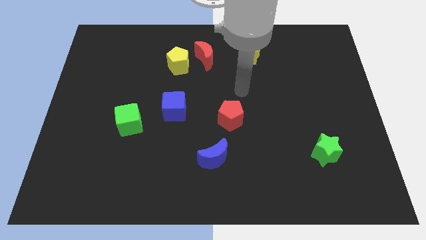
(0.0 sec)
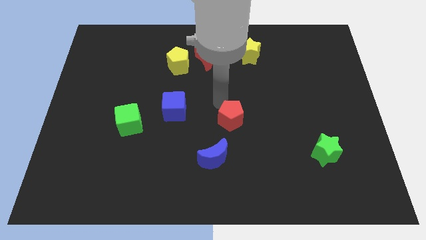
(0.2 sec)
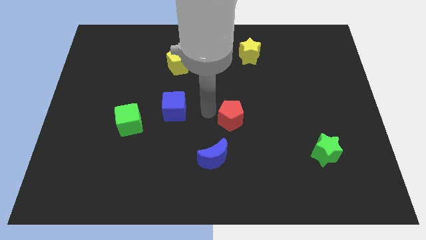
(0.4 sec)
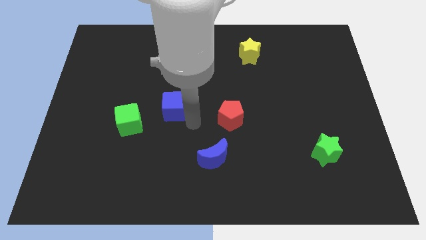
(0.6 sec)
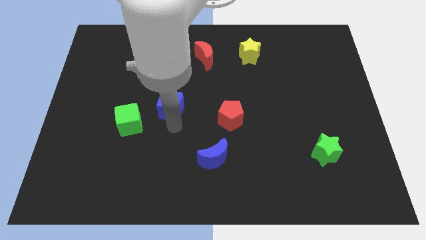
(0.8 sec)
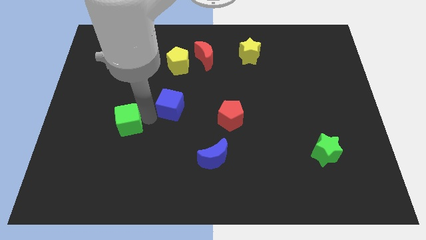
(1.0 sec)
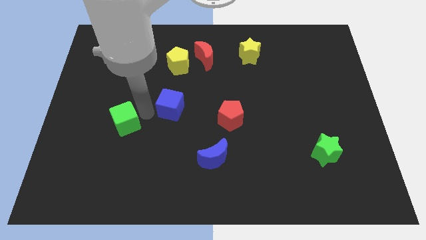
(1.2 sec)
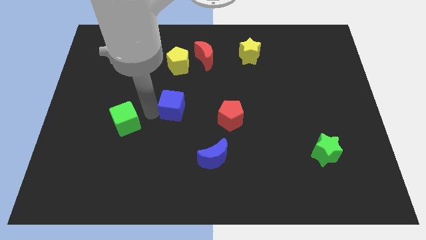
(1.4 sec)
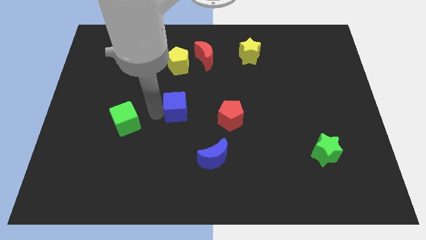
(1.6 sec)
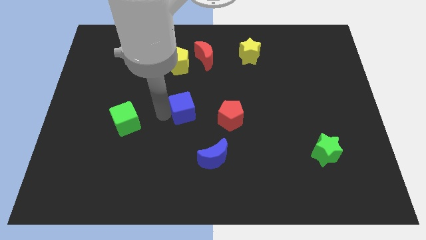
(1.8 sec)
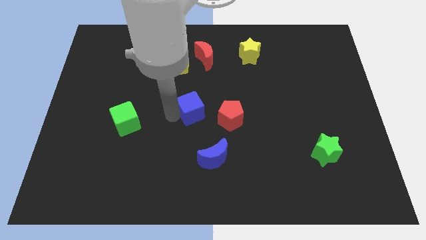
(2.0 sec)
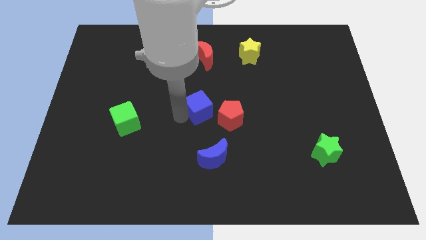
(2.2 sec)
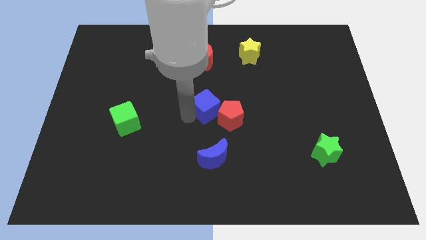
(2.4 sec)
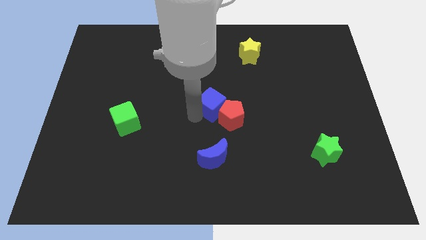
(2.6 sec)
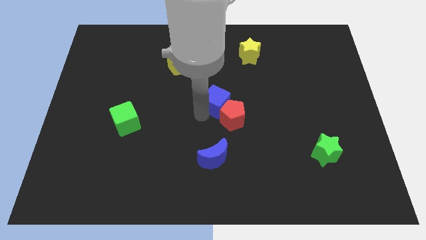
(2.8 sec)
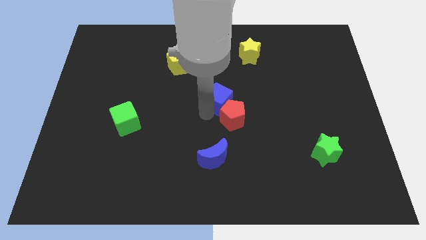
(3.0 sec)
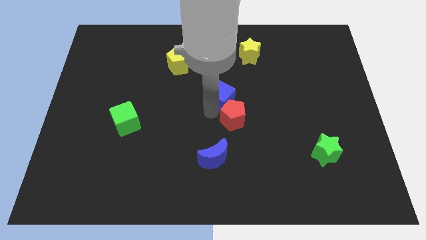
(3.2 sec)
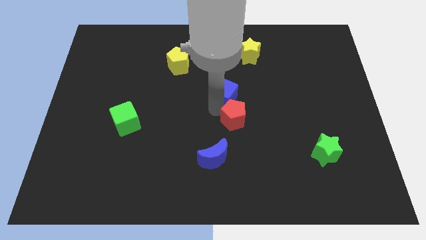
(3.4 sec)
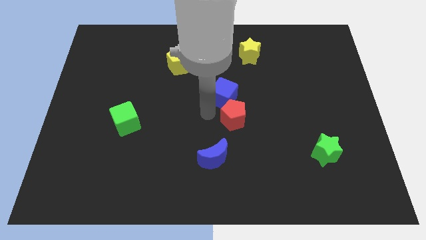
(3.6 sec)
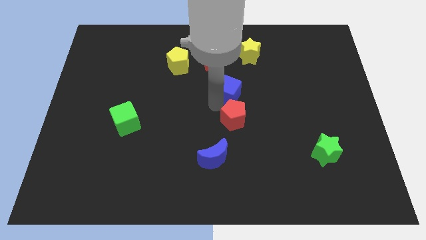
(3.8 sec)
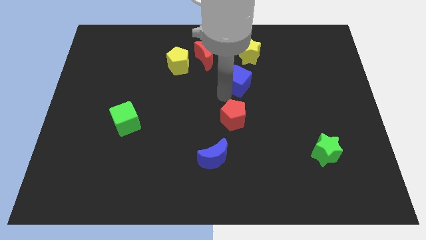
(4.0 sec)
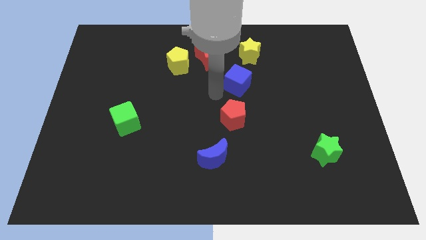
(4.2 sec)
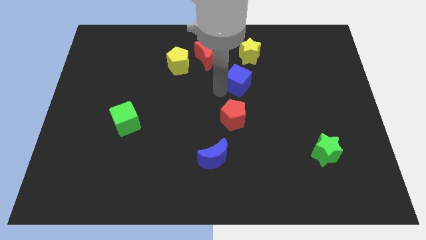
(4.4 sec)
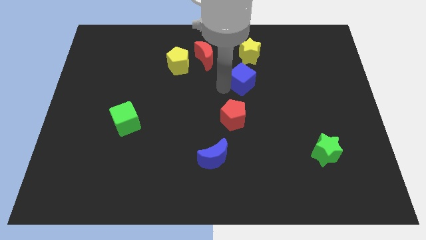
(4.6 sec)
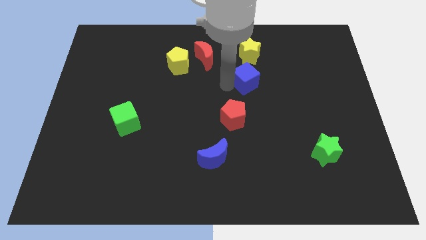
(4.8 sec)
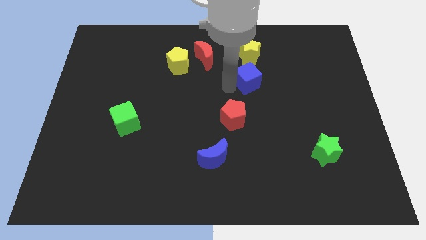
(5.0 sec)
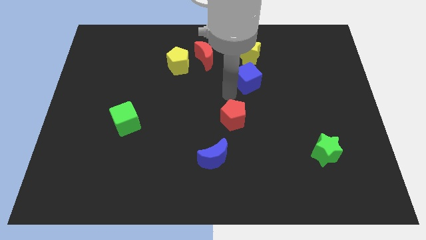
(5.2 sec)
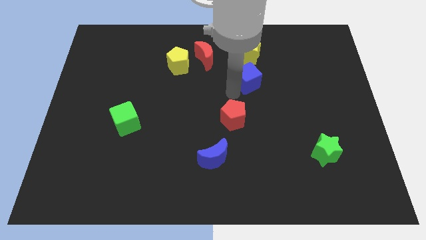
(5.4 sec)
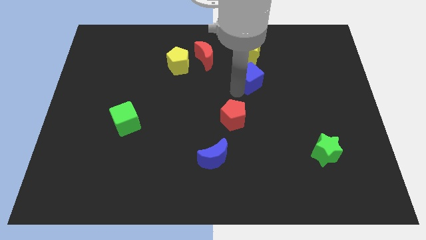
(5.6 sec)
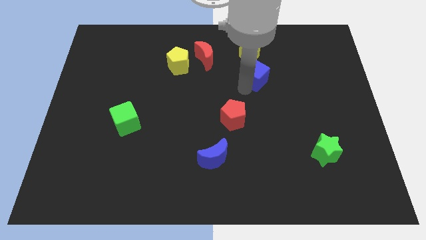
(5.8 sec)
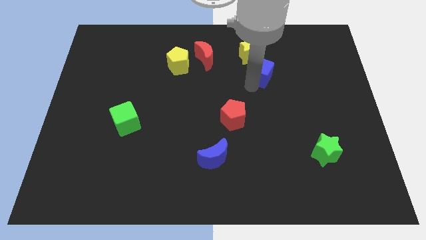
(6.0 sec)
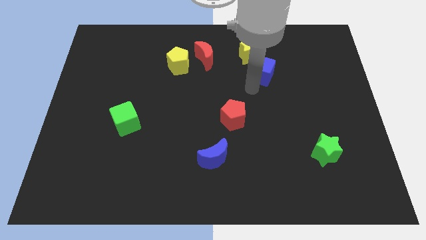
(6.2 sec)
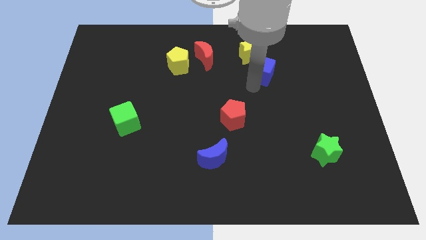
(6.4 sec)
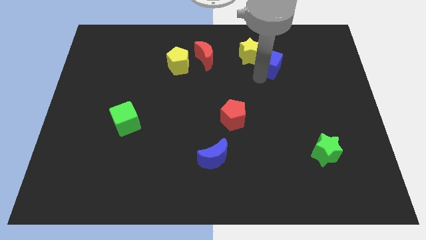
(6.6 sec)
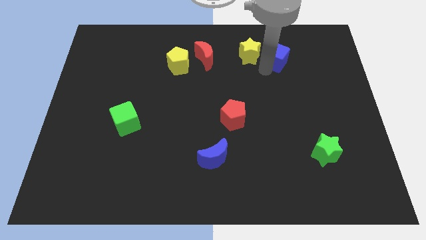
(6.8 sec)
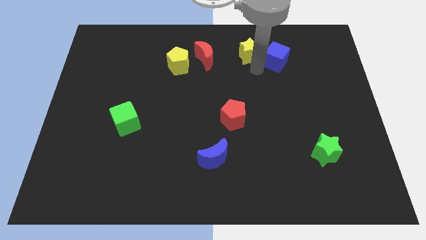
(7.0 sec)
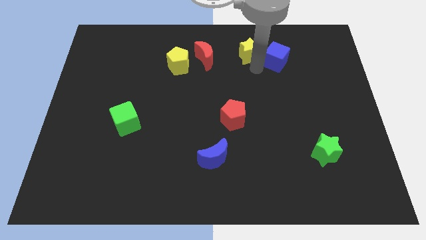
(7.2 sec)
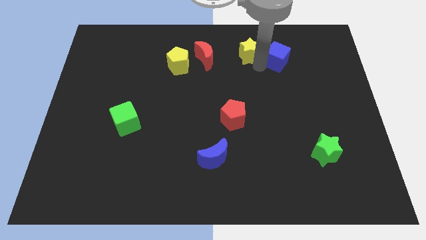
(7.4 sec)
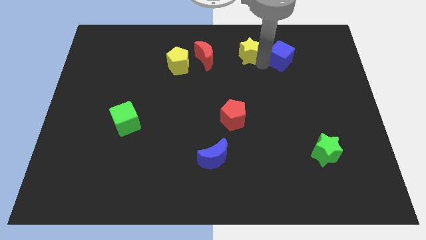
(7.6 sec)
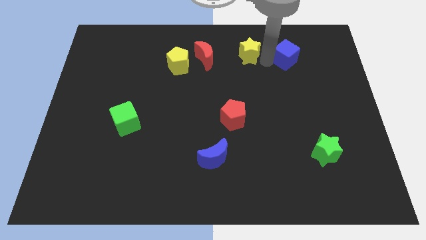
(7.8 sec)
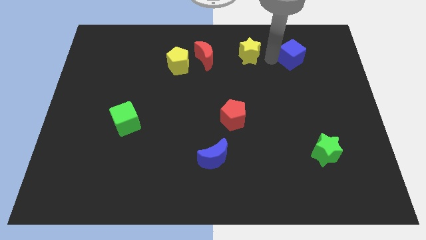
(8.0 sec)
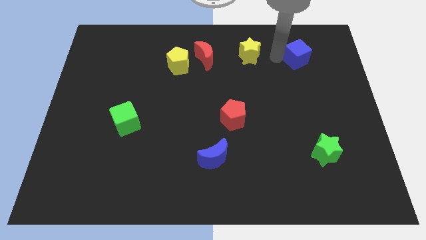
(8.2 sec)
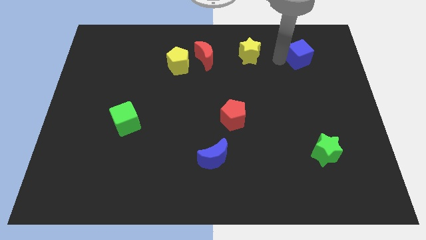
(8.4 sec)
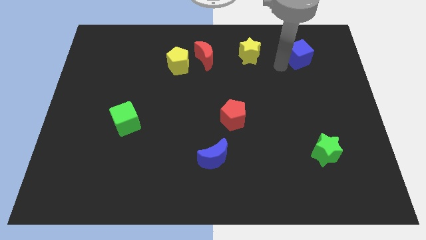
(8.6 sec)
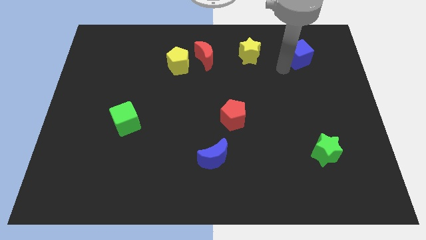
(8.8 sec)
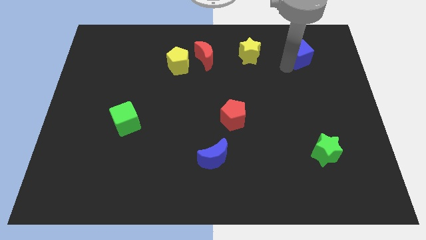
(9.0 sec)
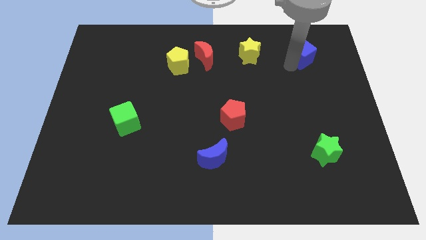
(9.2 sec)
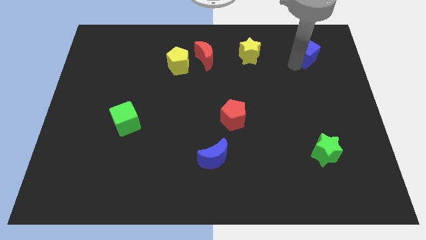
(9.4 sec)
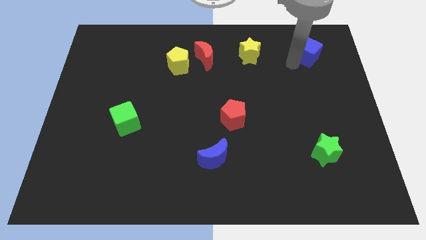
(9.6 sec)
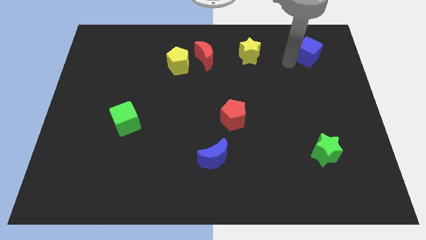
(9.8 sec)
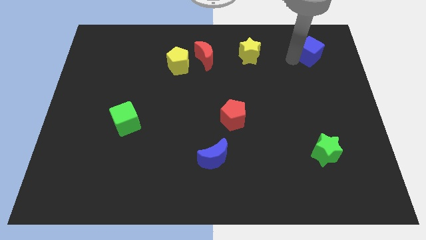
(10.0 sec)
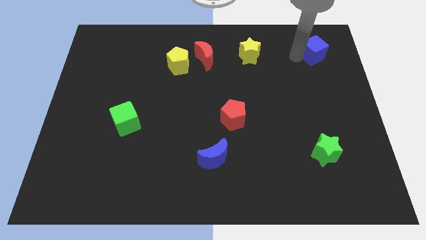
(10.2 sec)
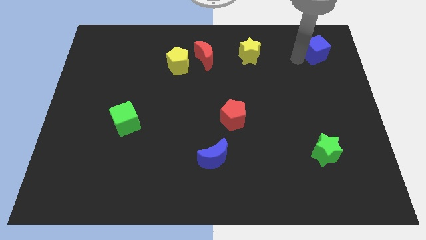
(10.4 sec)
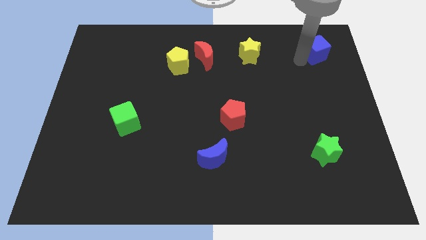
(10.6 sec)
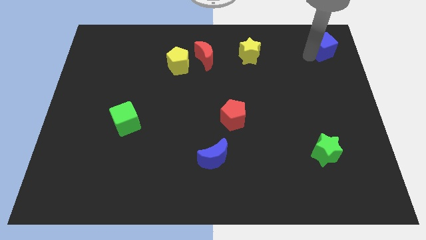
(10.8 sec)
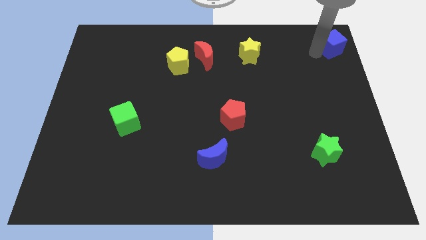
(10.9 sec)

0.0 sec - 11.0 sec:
move the blue cube to the upper right corner

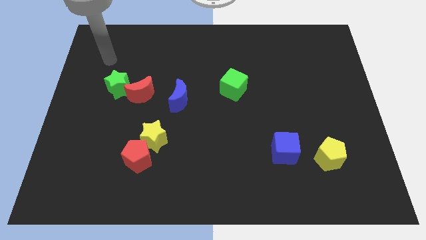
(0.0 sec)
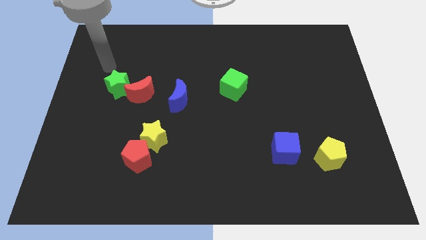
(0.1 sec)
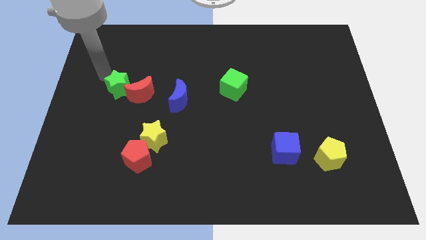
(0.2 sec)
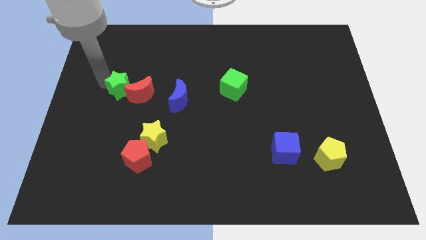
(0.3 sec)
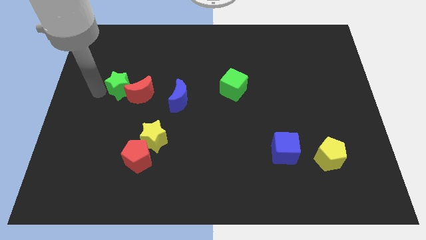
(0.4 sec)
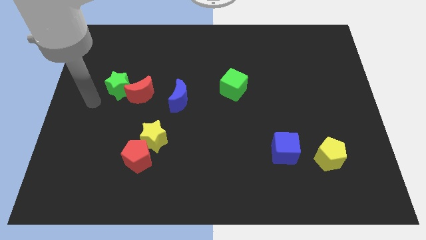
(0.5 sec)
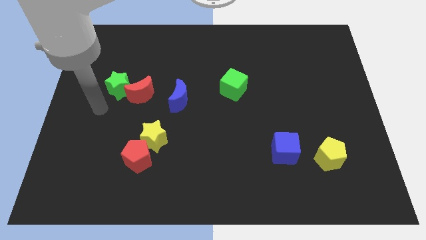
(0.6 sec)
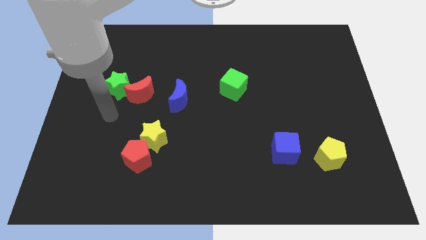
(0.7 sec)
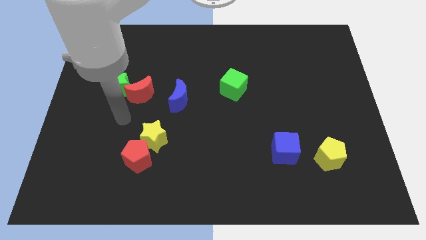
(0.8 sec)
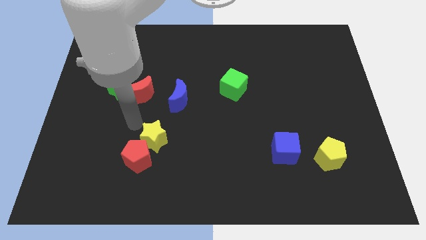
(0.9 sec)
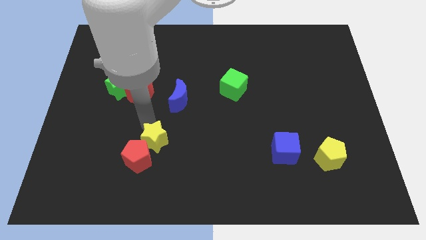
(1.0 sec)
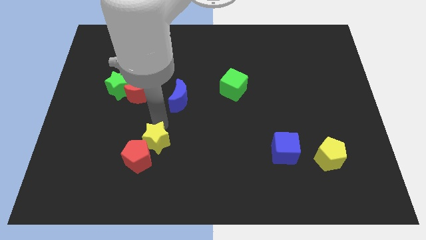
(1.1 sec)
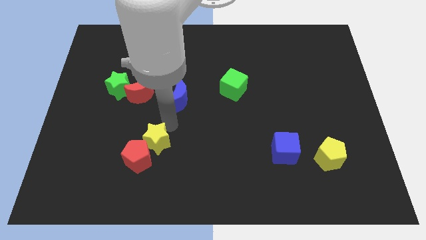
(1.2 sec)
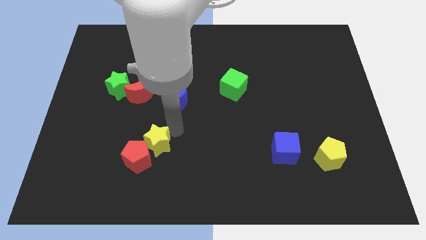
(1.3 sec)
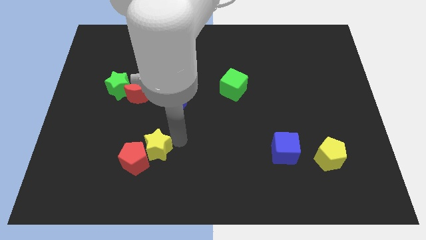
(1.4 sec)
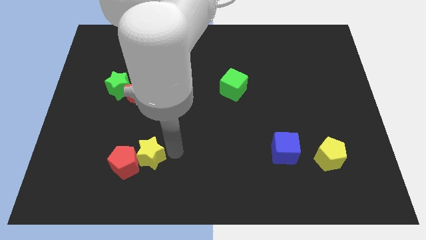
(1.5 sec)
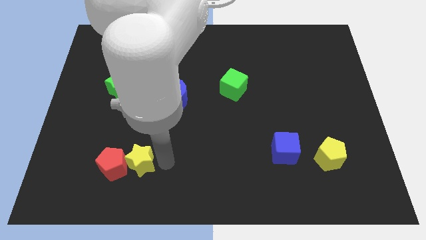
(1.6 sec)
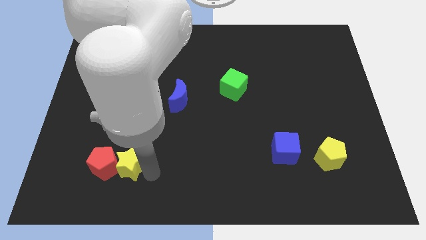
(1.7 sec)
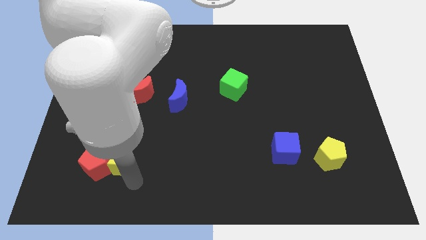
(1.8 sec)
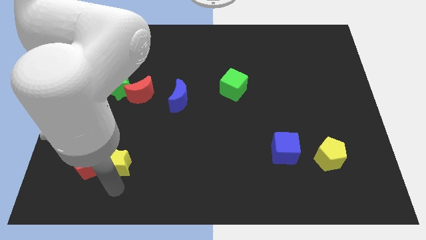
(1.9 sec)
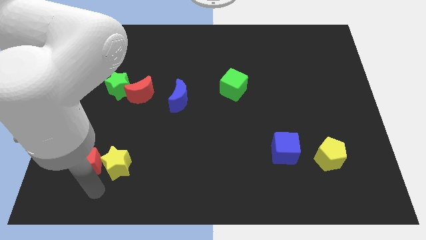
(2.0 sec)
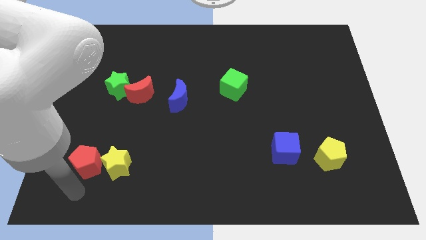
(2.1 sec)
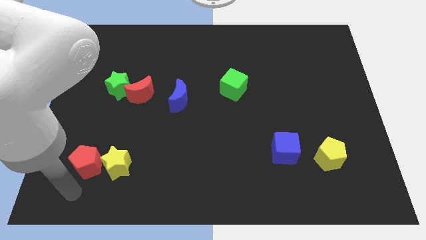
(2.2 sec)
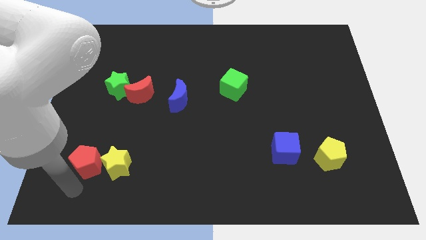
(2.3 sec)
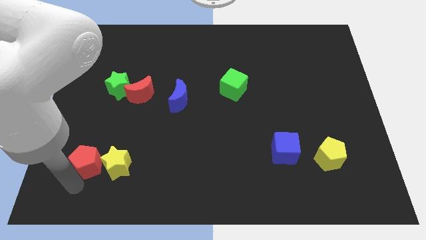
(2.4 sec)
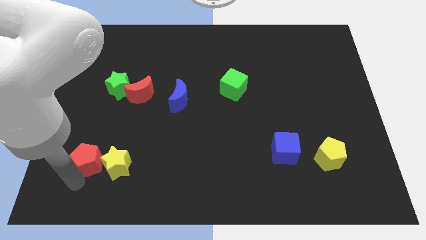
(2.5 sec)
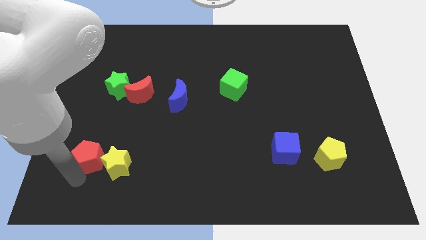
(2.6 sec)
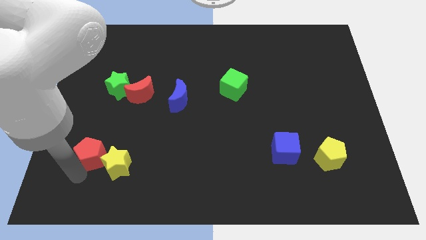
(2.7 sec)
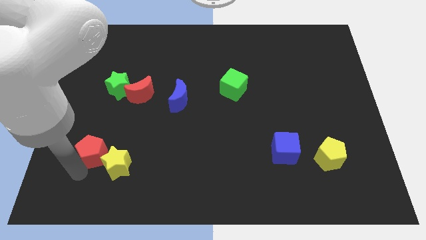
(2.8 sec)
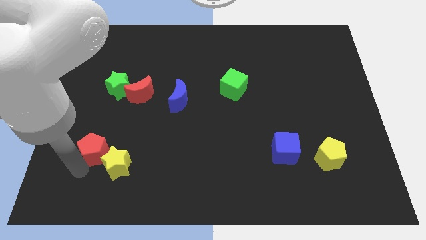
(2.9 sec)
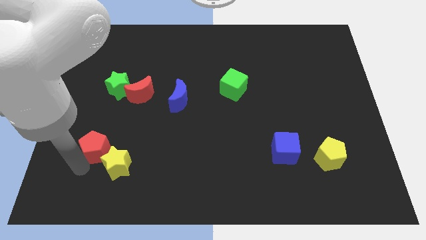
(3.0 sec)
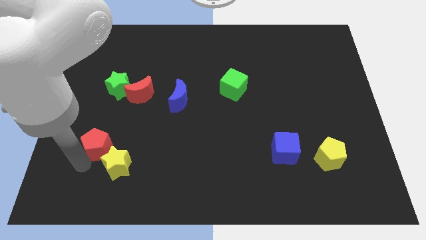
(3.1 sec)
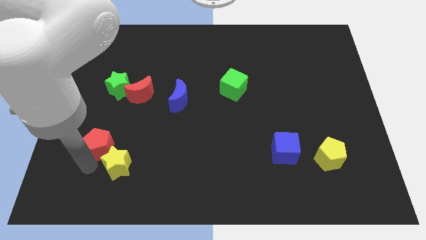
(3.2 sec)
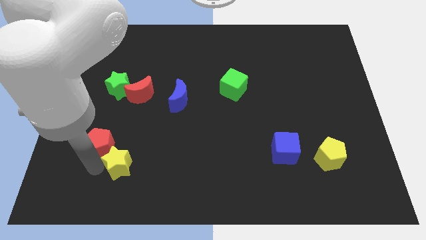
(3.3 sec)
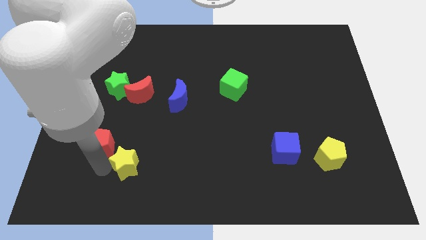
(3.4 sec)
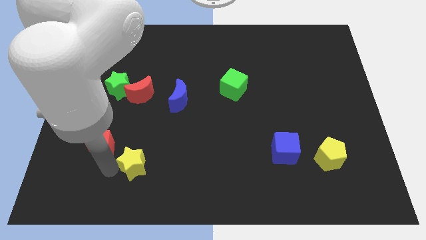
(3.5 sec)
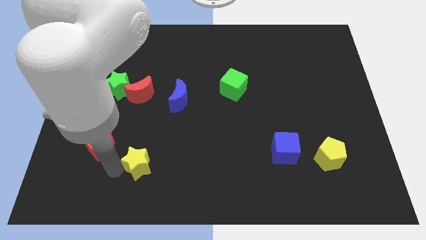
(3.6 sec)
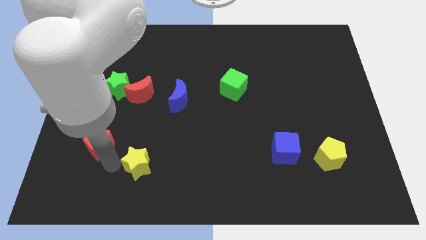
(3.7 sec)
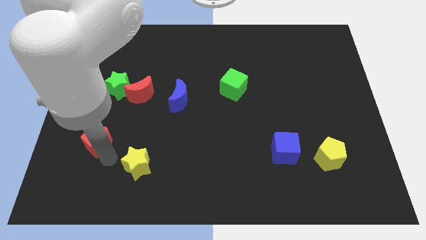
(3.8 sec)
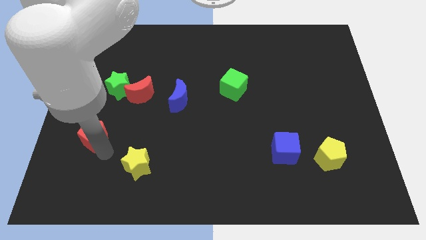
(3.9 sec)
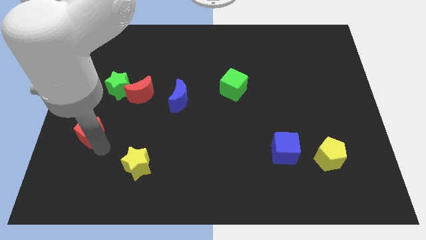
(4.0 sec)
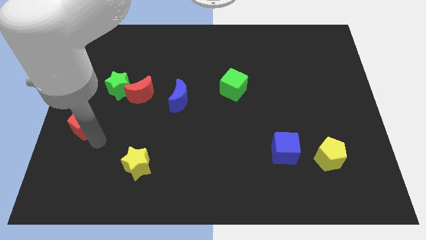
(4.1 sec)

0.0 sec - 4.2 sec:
move the red pentagon to the left side of the board
